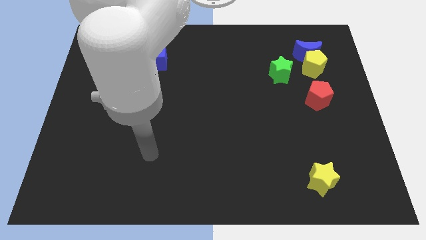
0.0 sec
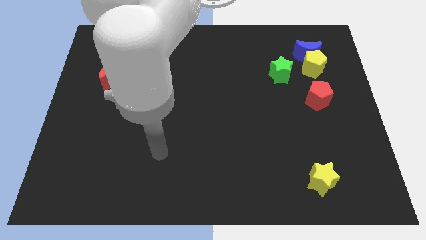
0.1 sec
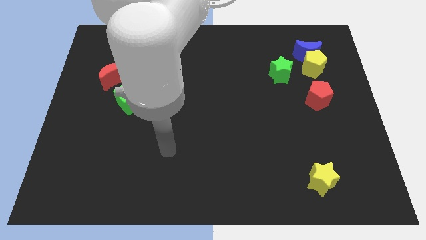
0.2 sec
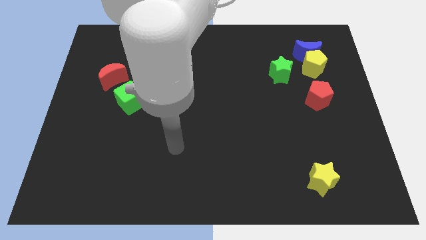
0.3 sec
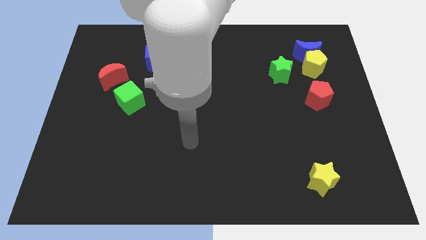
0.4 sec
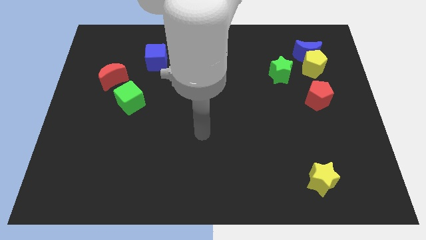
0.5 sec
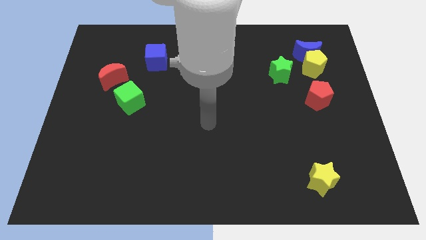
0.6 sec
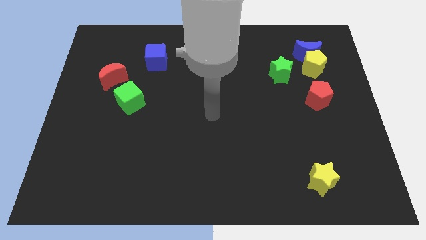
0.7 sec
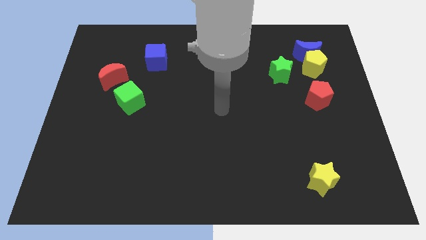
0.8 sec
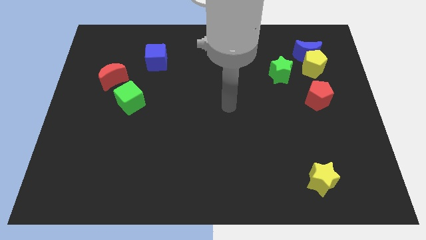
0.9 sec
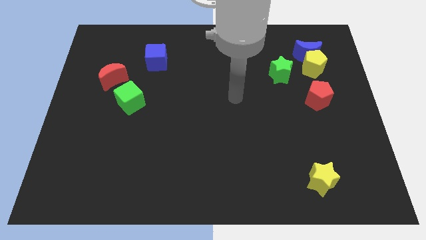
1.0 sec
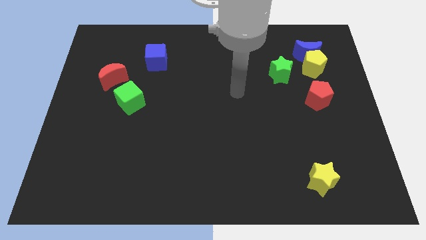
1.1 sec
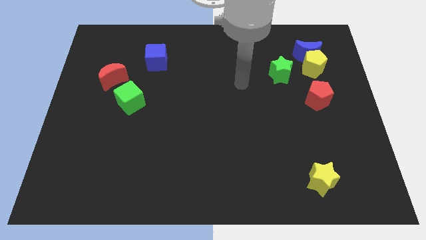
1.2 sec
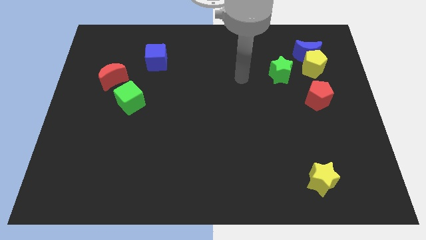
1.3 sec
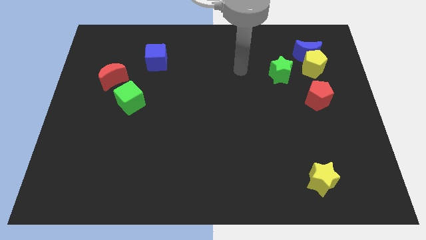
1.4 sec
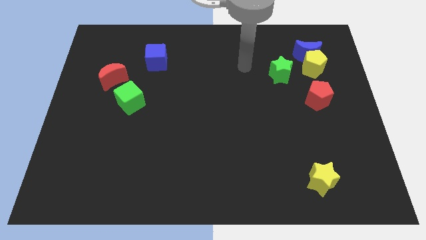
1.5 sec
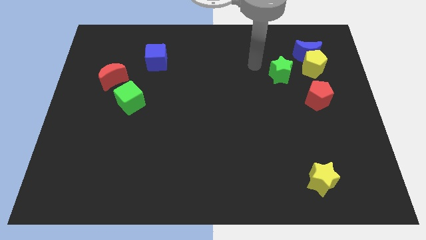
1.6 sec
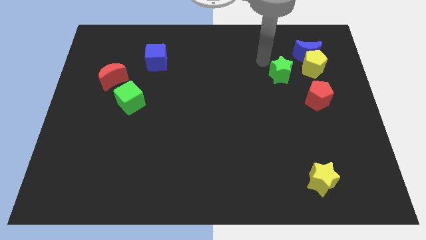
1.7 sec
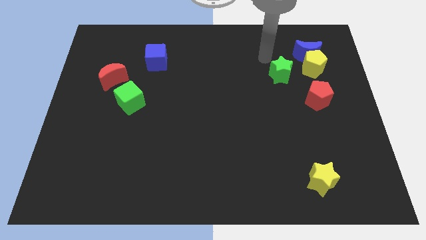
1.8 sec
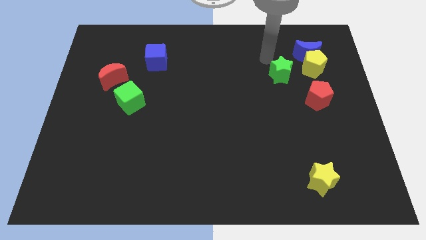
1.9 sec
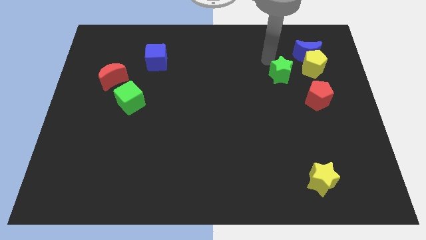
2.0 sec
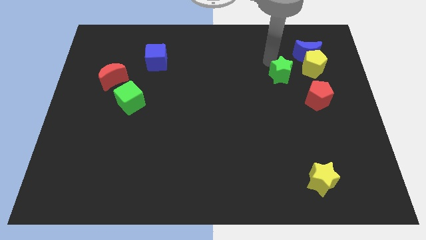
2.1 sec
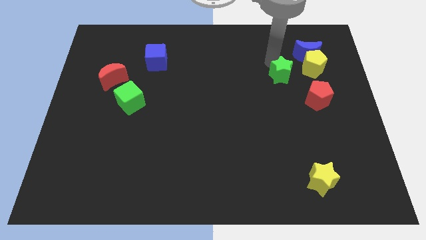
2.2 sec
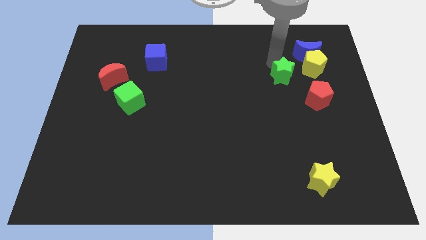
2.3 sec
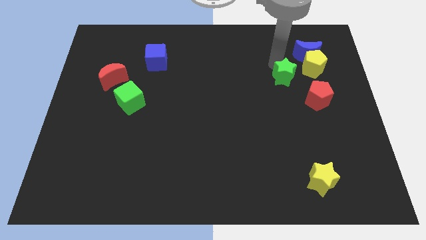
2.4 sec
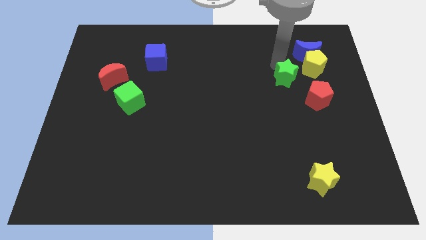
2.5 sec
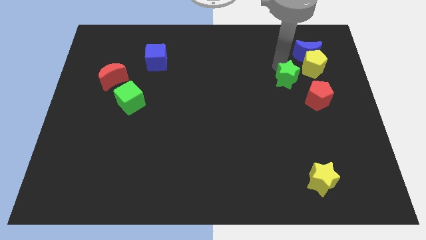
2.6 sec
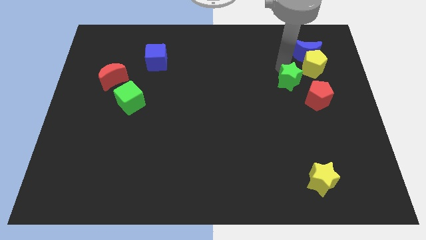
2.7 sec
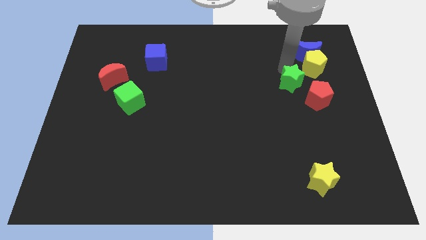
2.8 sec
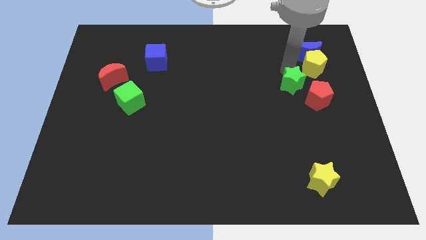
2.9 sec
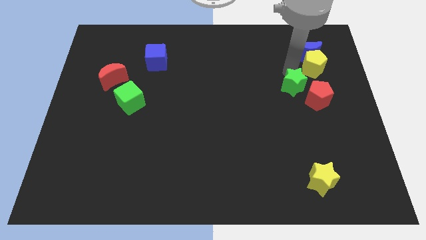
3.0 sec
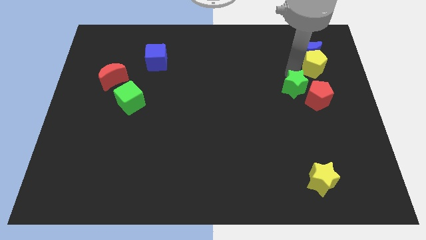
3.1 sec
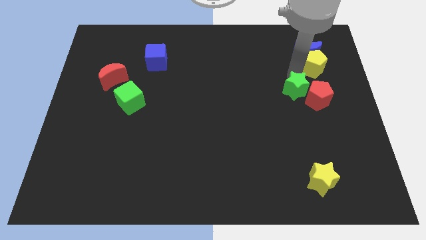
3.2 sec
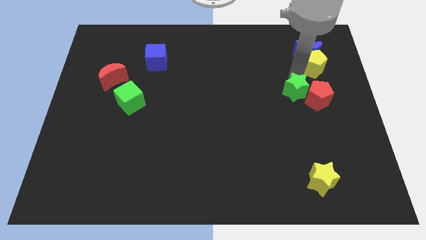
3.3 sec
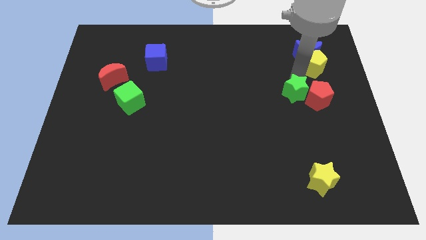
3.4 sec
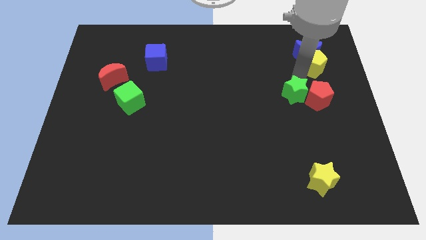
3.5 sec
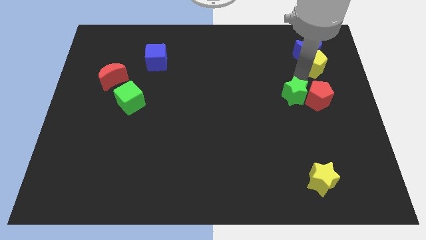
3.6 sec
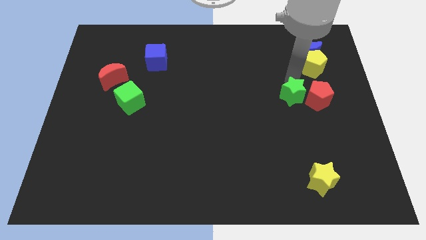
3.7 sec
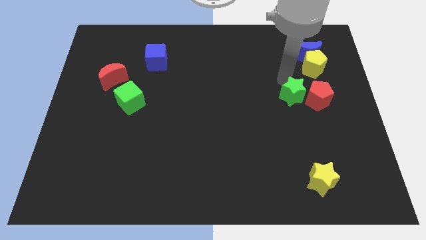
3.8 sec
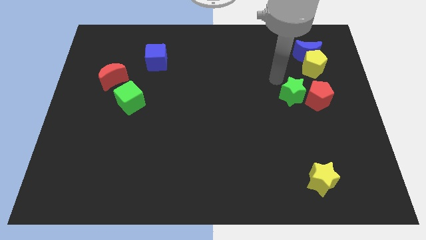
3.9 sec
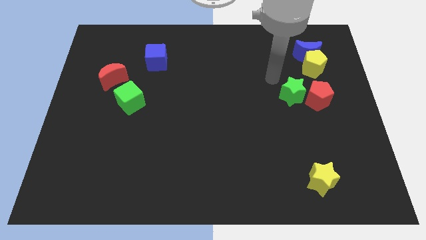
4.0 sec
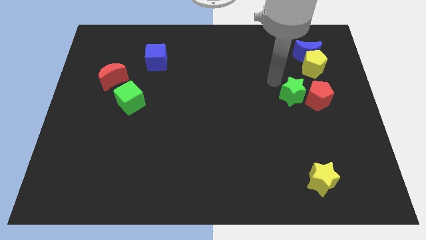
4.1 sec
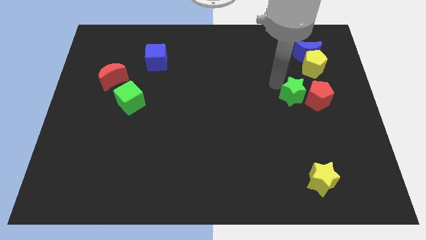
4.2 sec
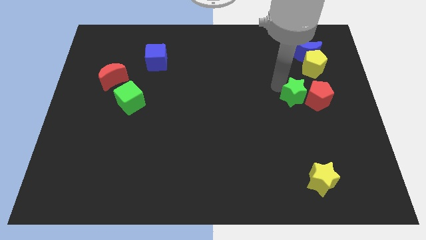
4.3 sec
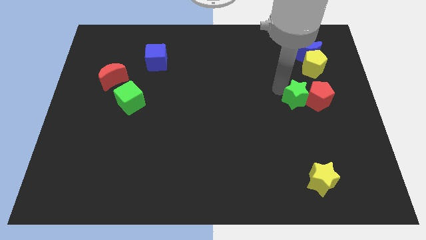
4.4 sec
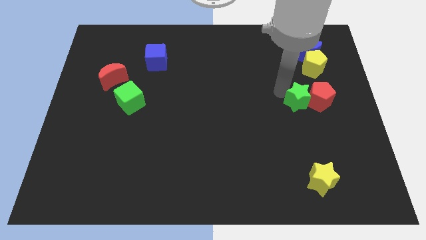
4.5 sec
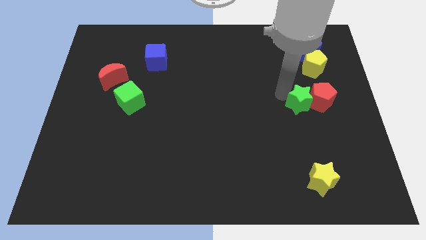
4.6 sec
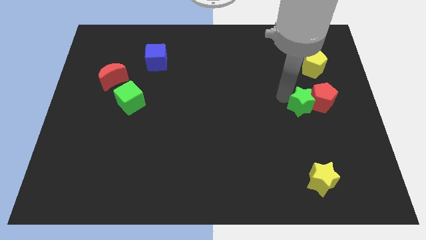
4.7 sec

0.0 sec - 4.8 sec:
push the green star below the yellow pentagon

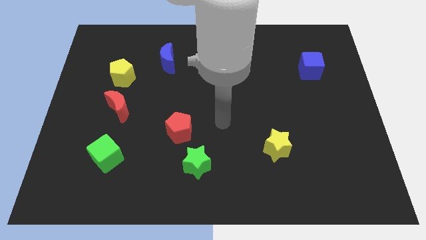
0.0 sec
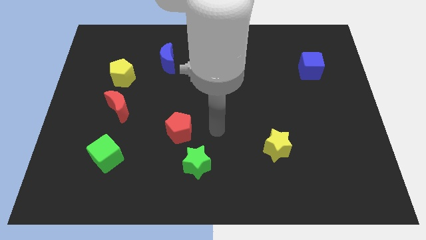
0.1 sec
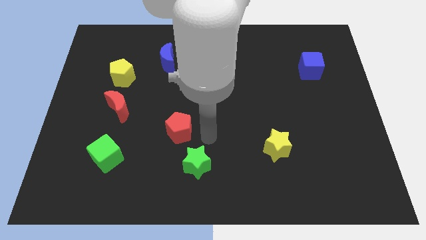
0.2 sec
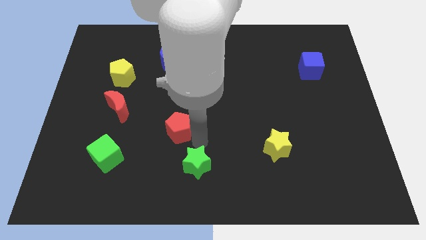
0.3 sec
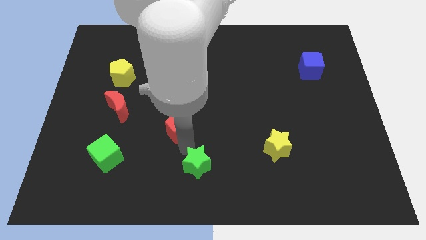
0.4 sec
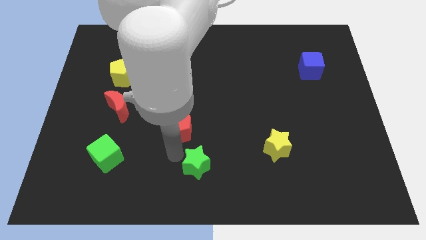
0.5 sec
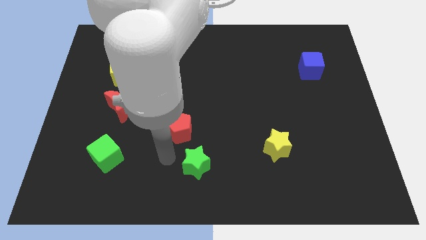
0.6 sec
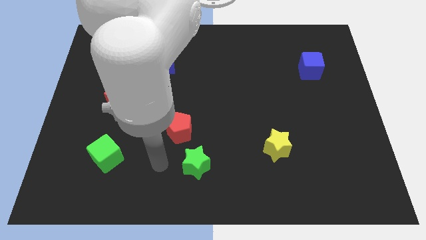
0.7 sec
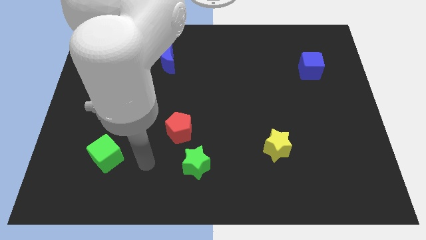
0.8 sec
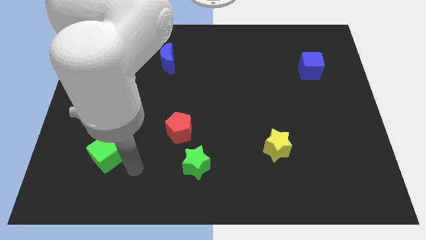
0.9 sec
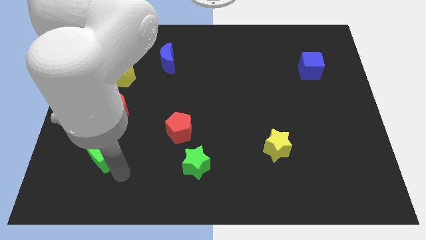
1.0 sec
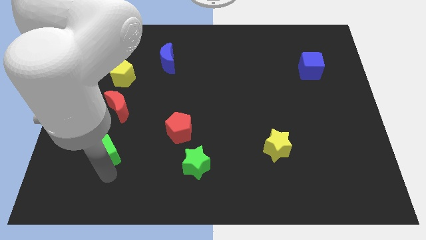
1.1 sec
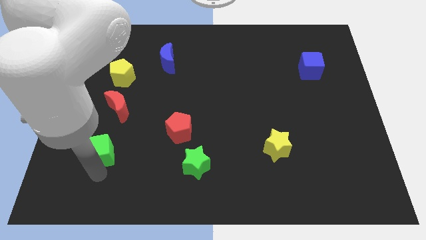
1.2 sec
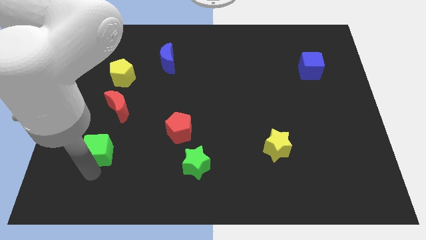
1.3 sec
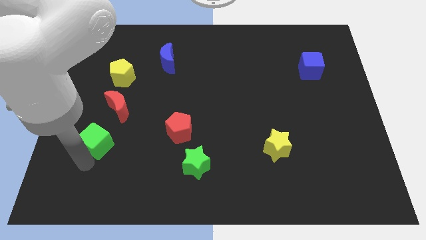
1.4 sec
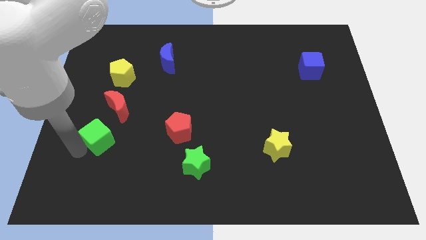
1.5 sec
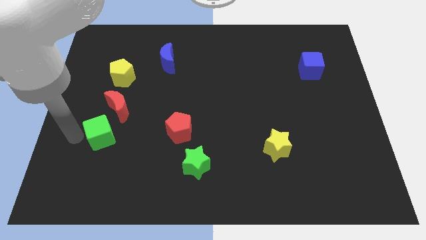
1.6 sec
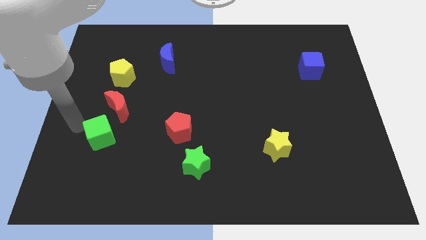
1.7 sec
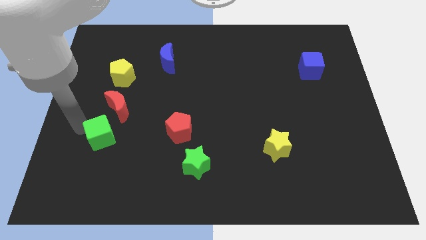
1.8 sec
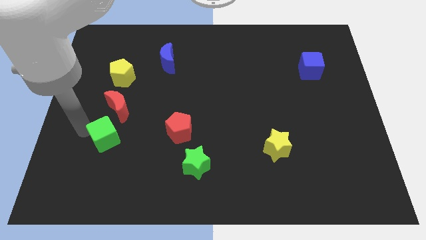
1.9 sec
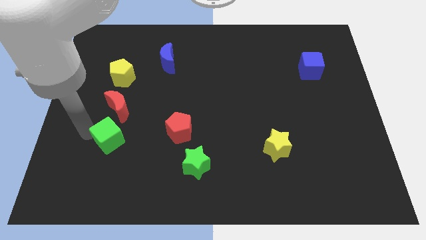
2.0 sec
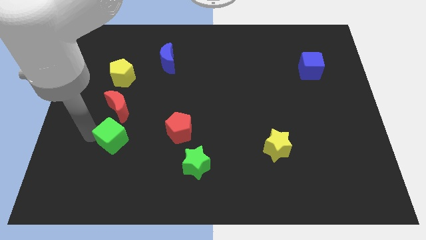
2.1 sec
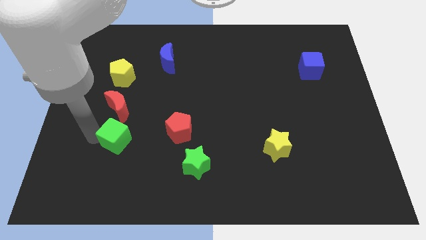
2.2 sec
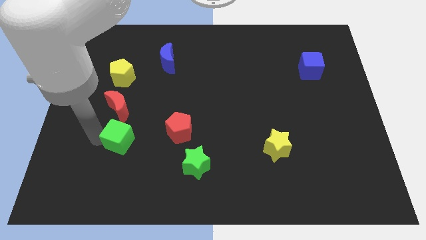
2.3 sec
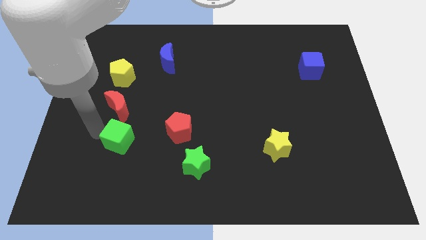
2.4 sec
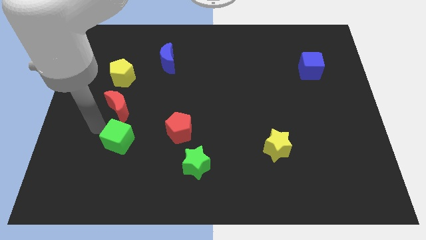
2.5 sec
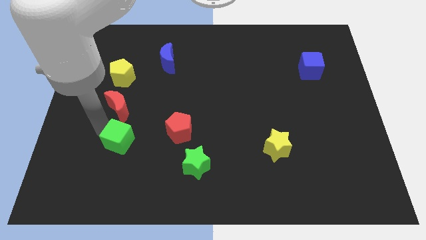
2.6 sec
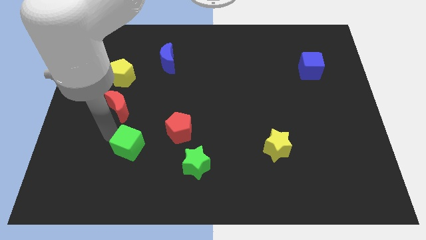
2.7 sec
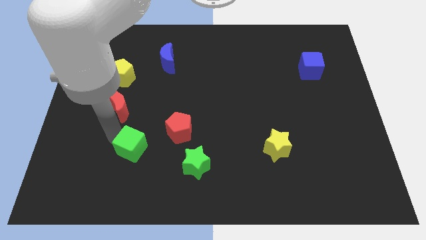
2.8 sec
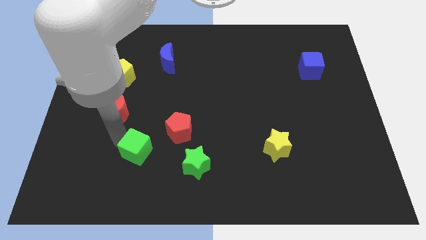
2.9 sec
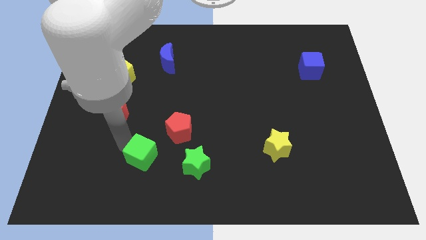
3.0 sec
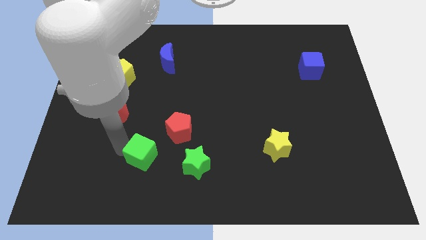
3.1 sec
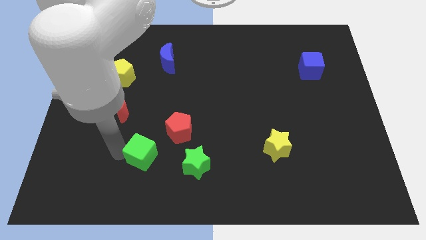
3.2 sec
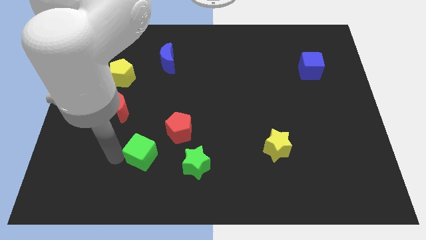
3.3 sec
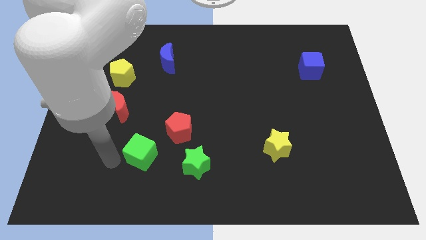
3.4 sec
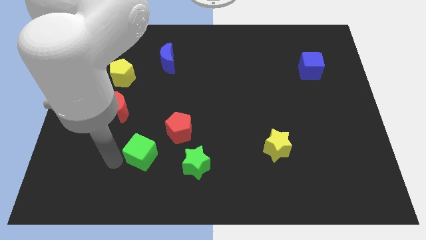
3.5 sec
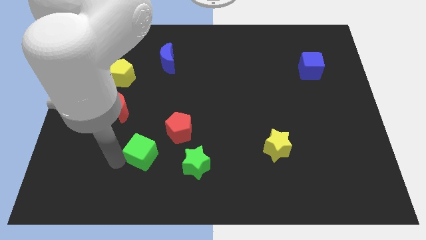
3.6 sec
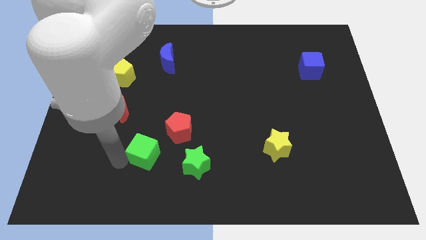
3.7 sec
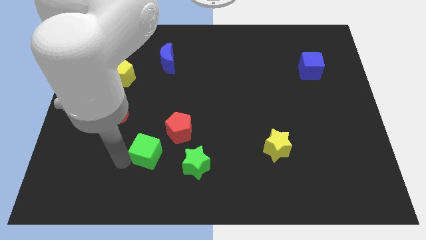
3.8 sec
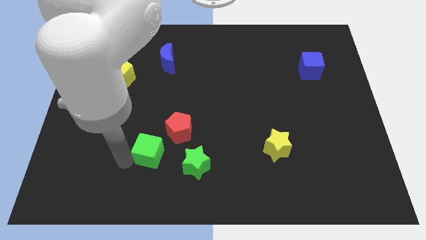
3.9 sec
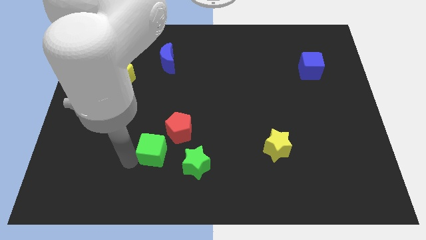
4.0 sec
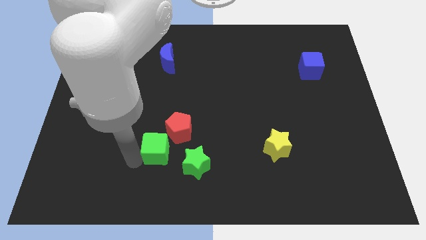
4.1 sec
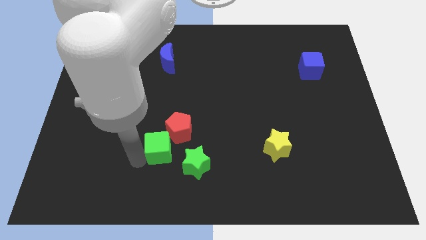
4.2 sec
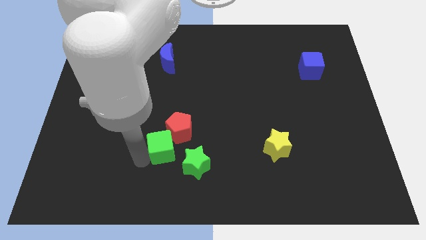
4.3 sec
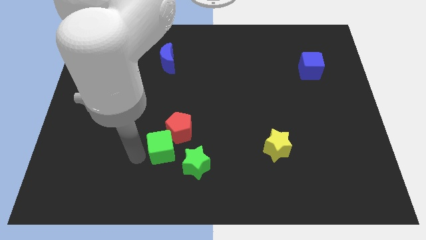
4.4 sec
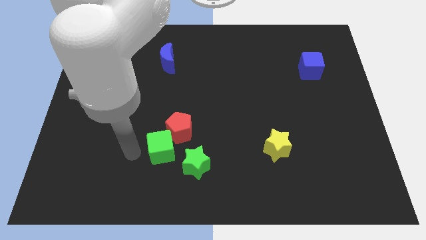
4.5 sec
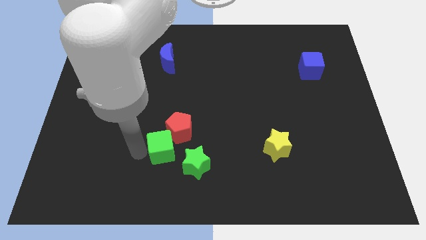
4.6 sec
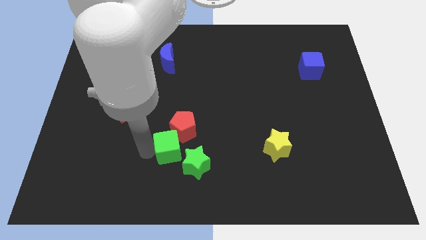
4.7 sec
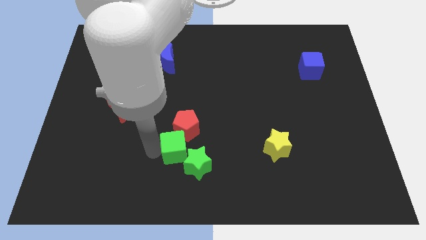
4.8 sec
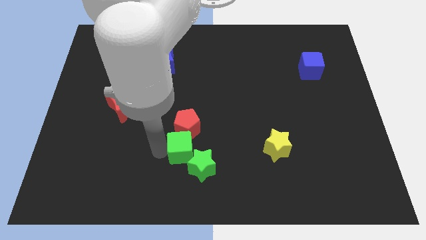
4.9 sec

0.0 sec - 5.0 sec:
put the green cube to the bottom right of the red pentagon
